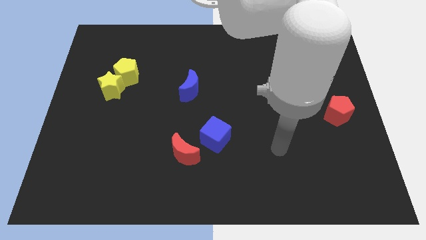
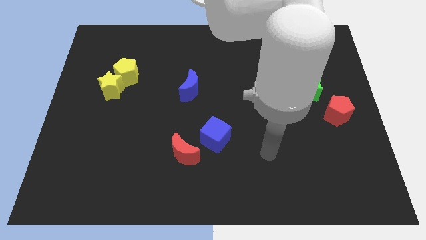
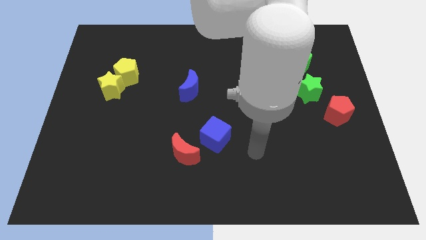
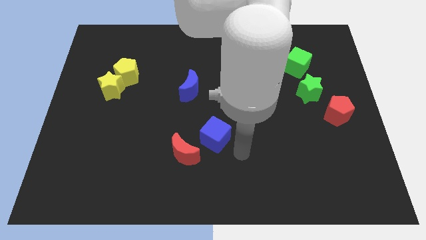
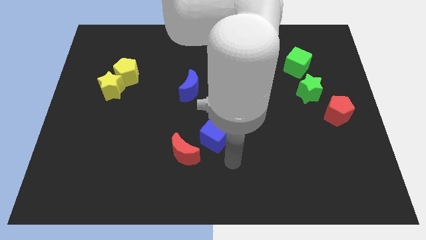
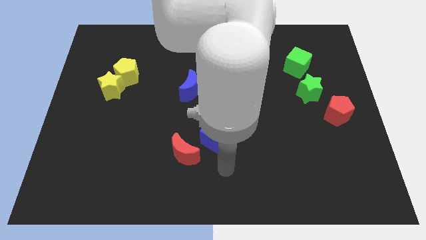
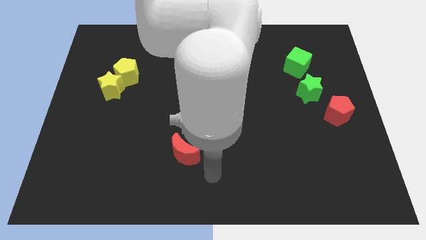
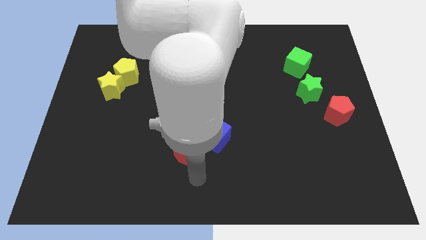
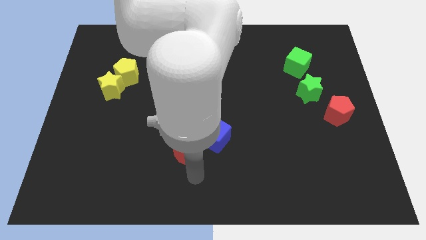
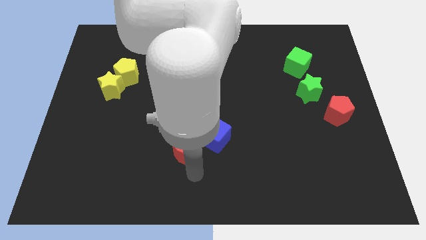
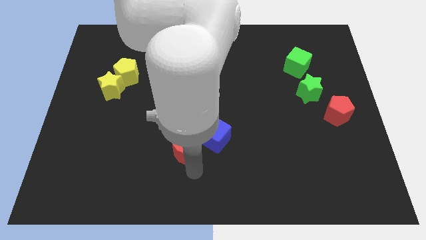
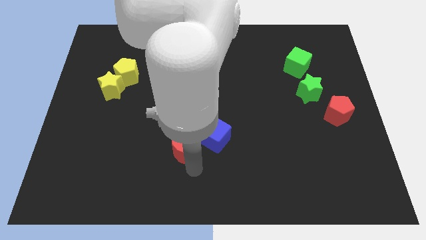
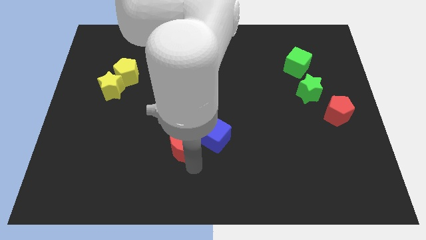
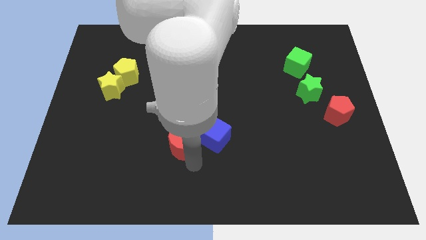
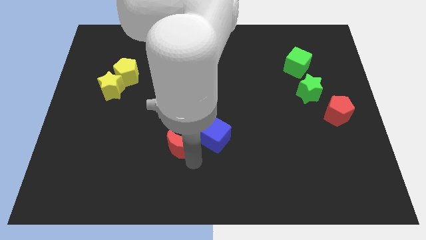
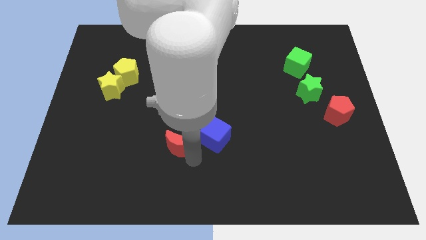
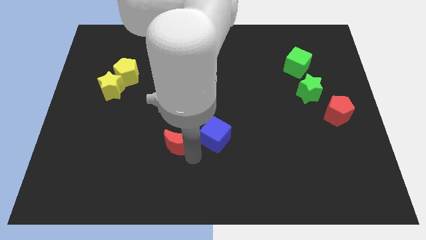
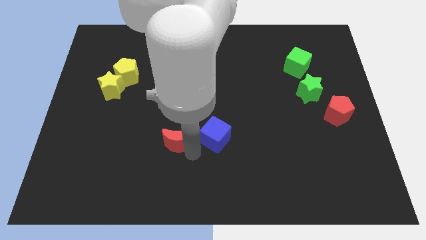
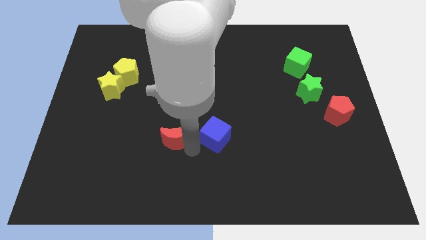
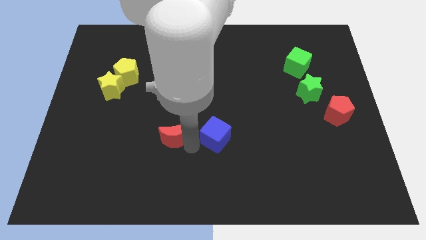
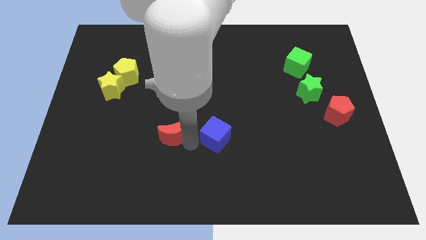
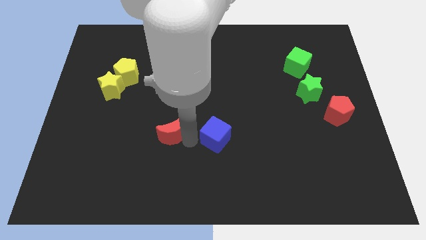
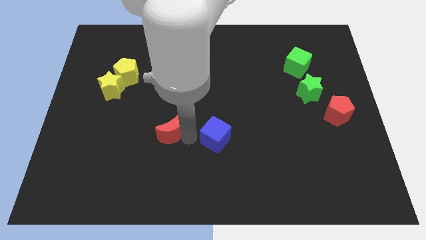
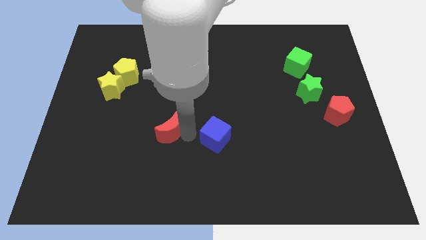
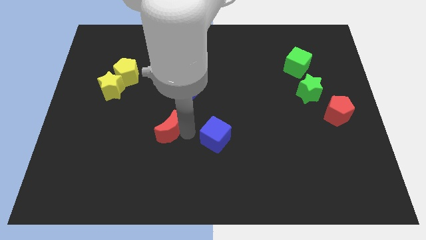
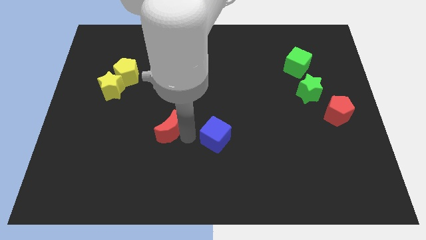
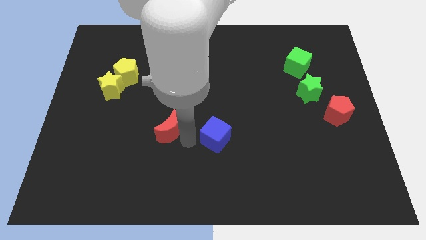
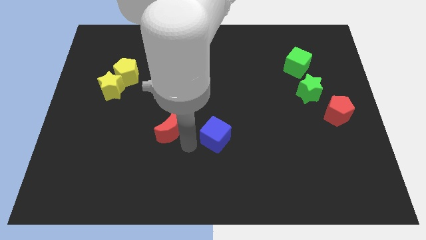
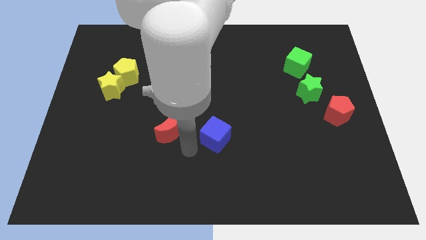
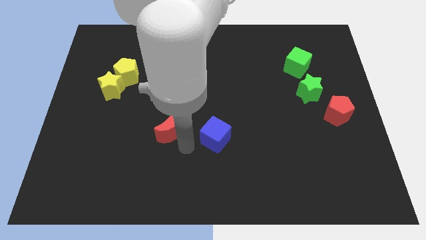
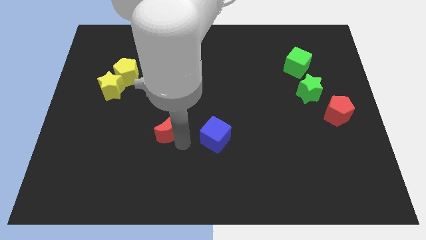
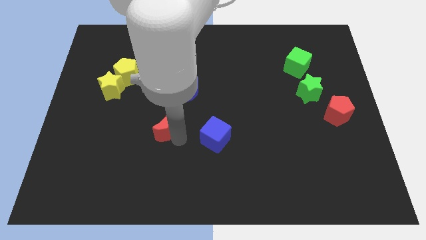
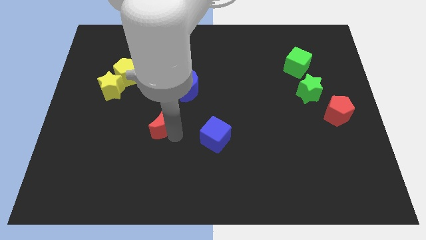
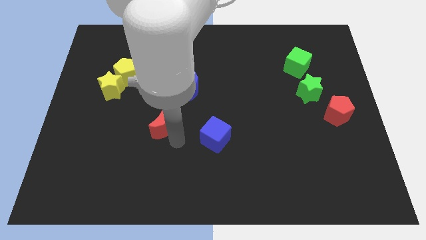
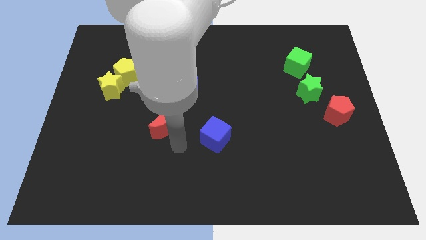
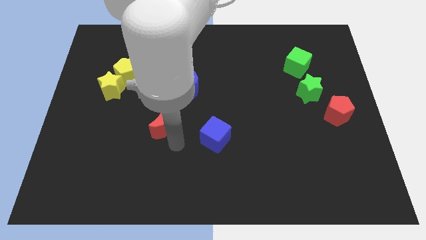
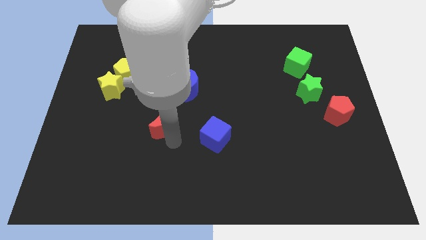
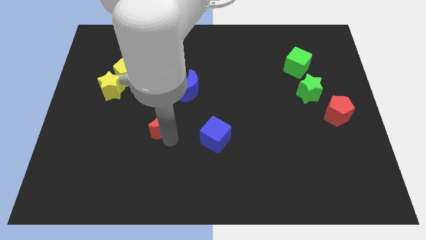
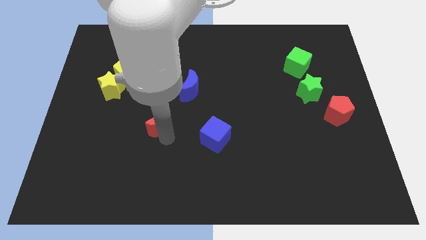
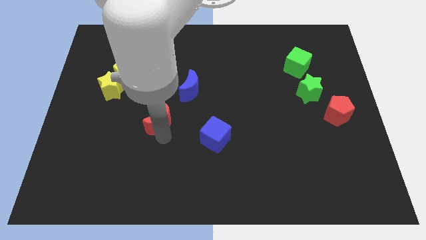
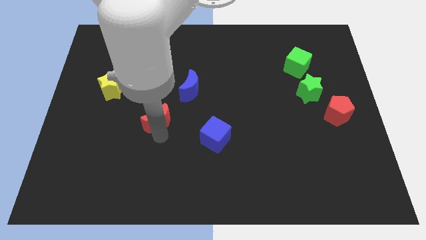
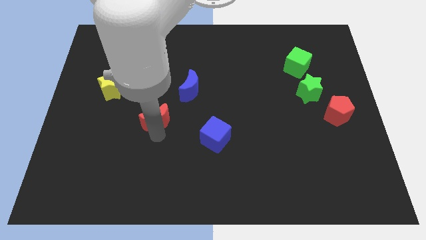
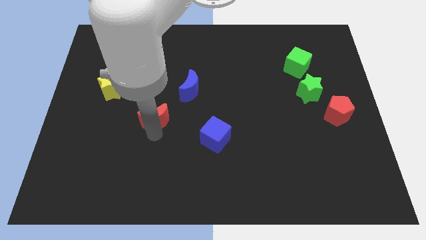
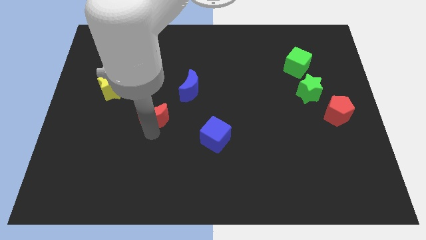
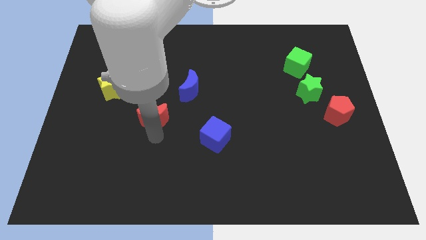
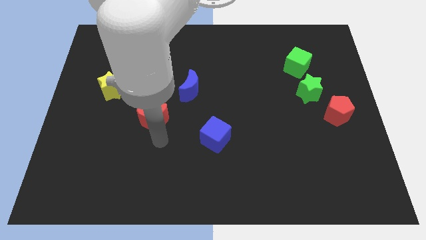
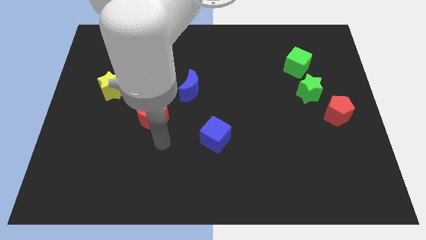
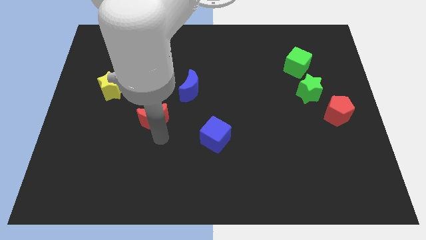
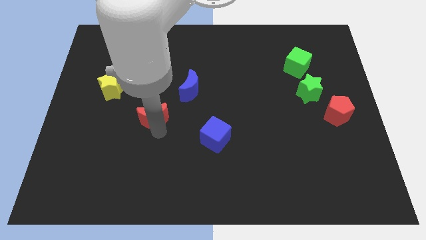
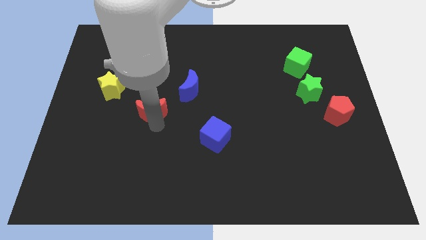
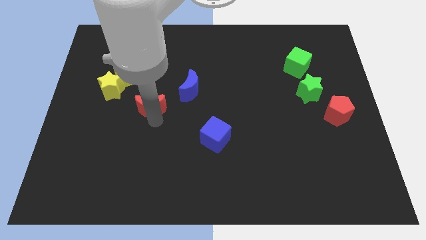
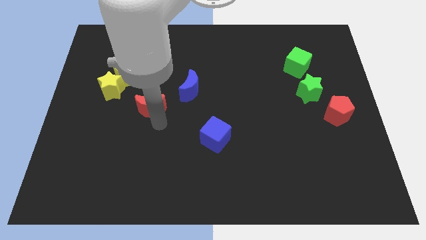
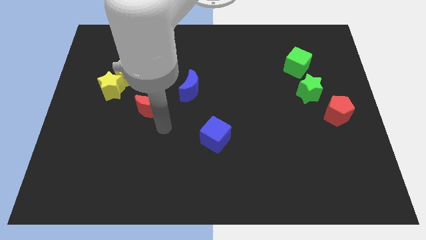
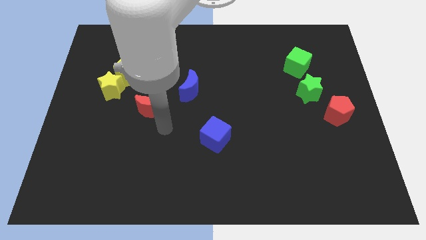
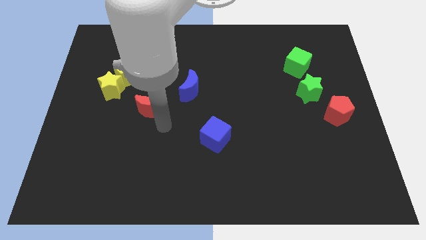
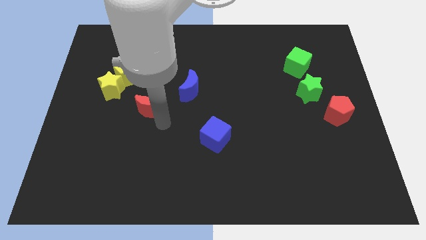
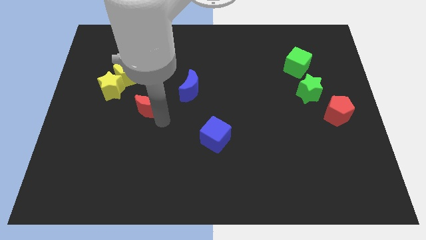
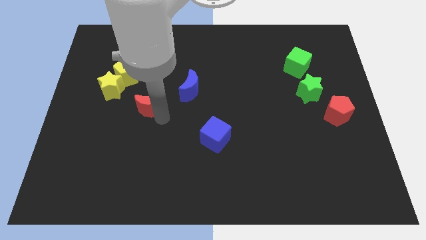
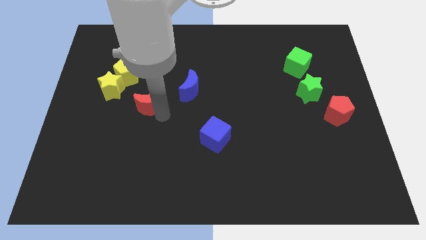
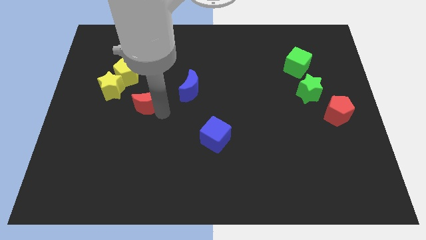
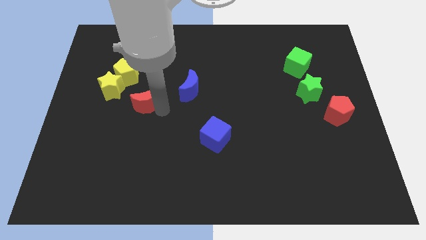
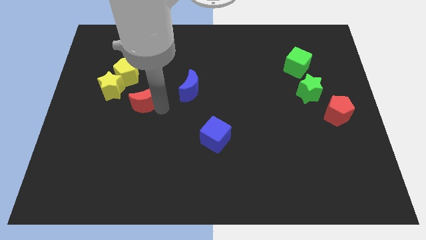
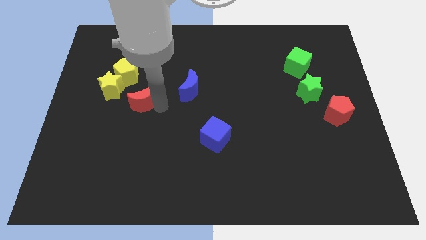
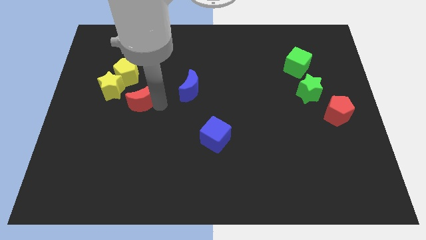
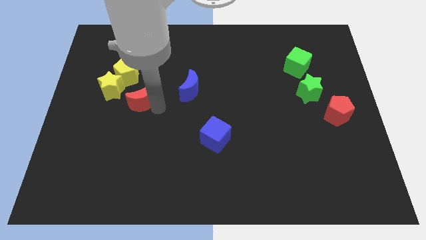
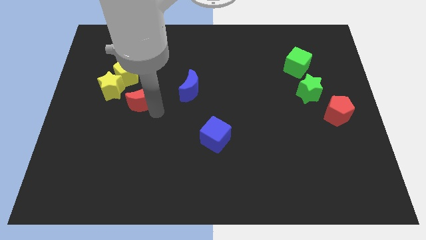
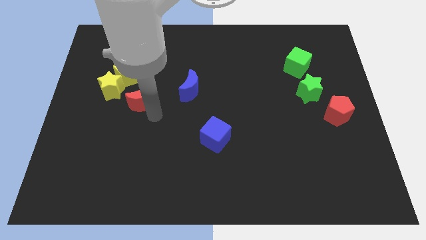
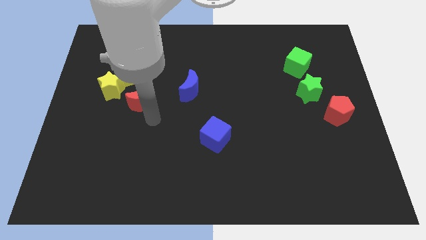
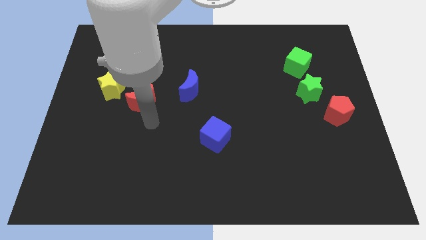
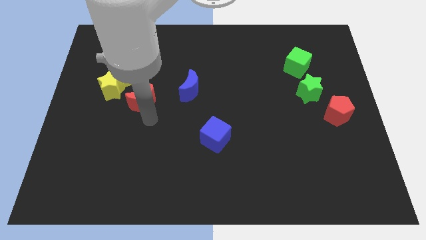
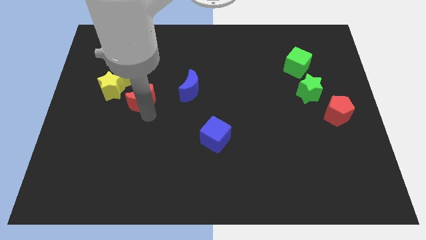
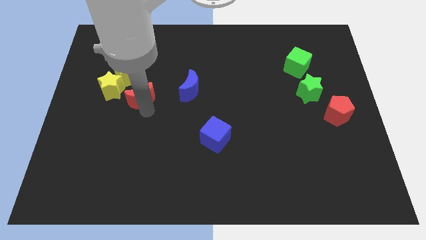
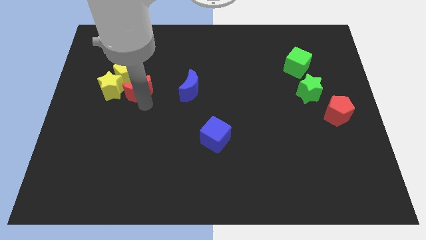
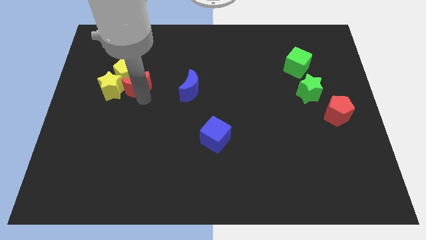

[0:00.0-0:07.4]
push the red moon close to the yellow pentagon

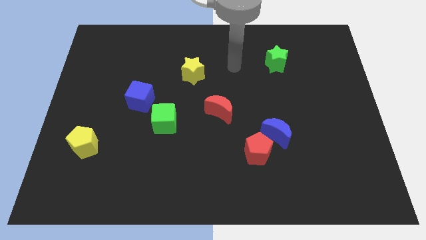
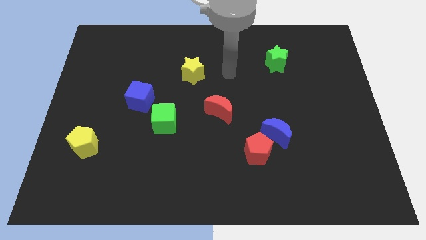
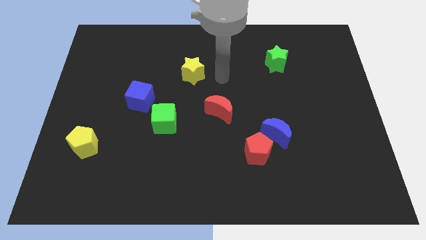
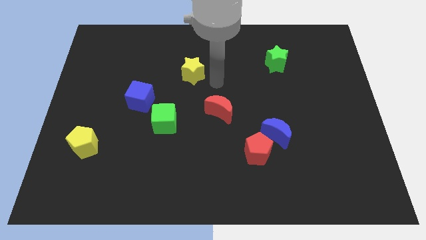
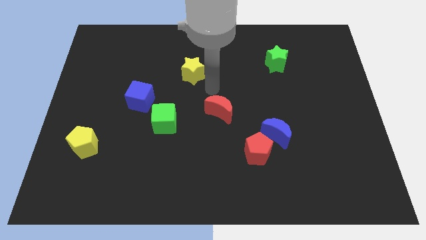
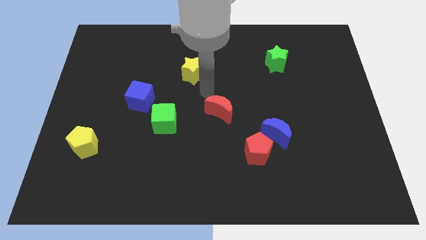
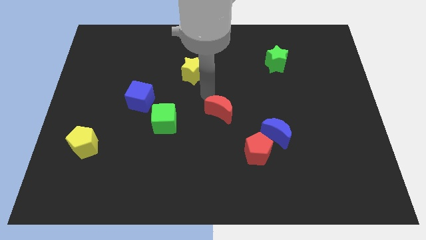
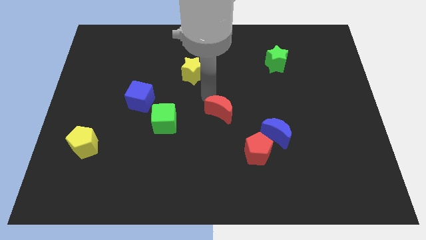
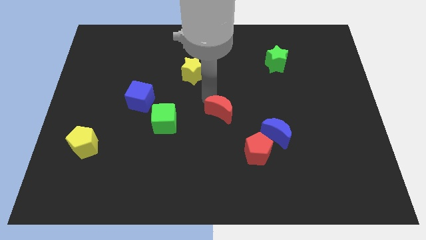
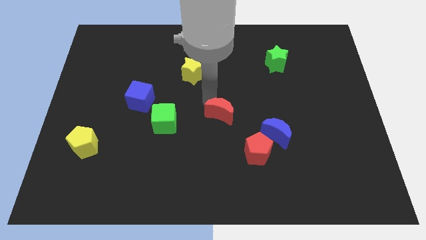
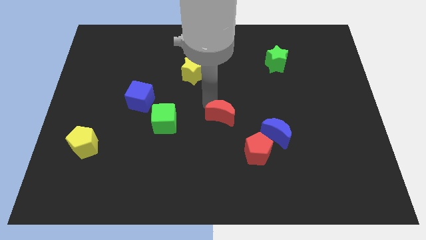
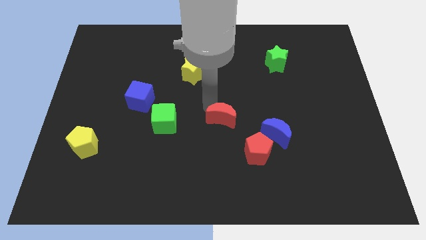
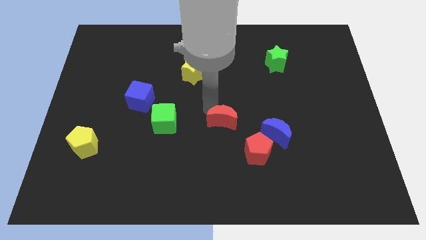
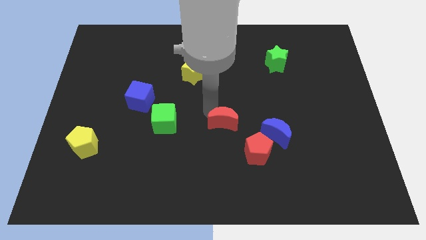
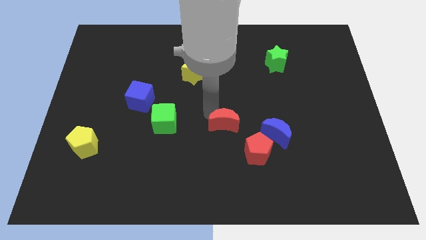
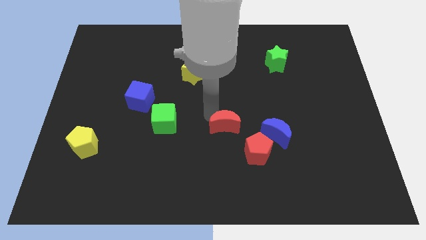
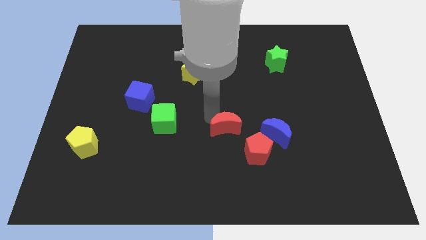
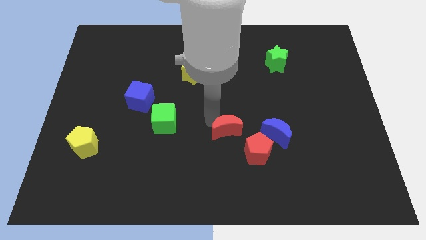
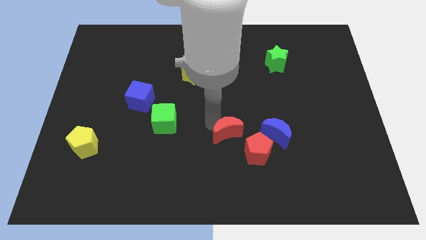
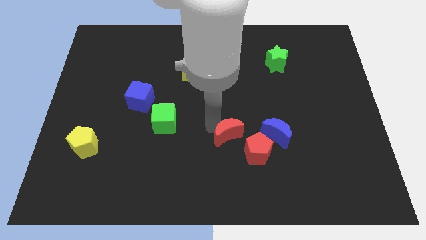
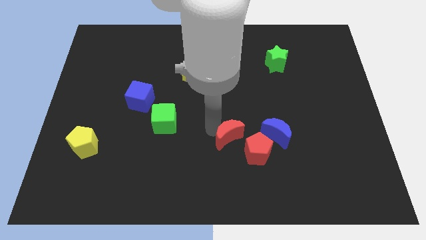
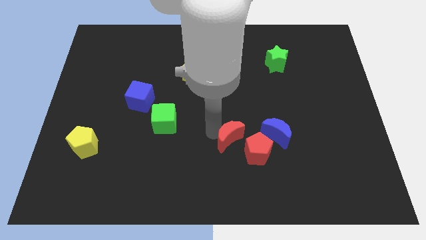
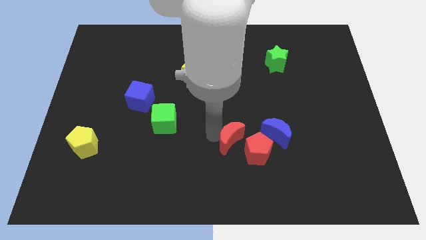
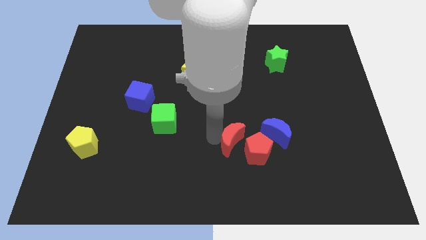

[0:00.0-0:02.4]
put the red moon next to the red pentagon
